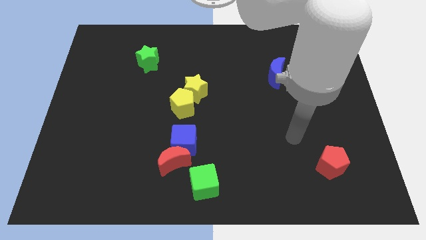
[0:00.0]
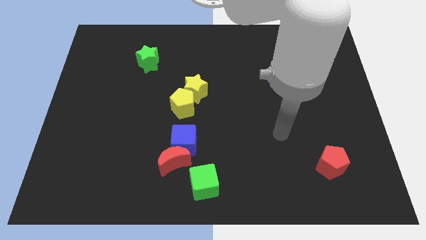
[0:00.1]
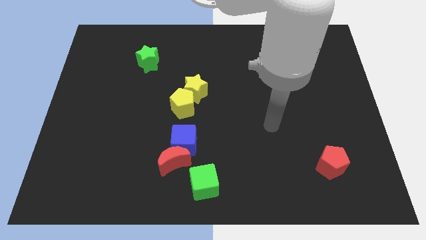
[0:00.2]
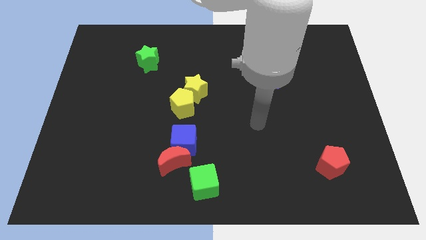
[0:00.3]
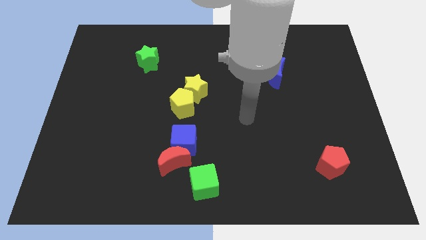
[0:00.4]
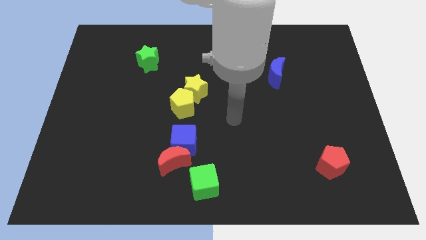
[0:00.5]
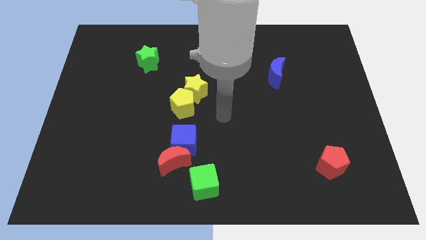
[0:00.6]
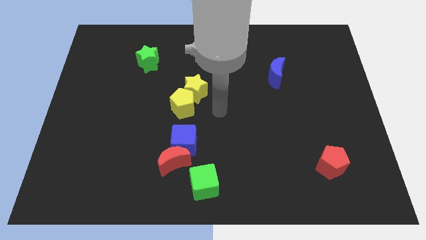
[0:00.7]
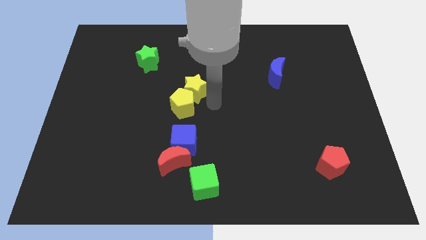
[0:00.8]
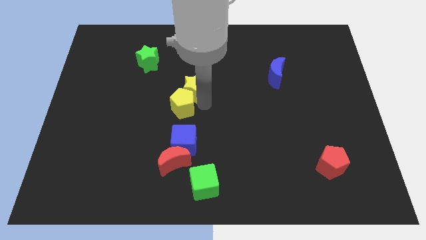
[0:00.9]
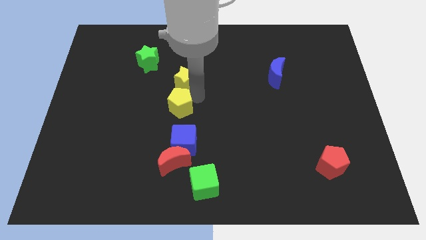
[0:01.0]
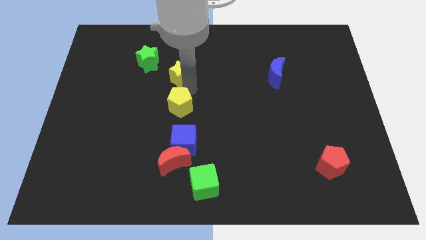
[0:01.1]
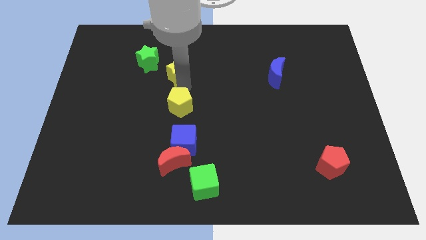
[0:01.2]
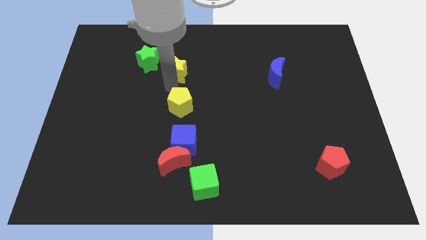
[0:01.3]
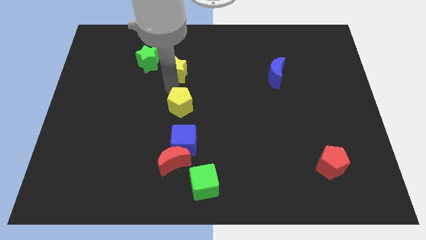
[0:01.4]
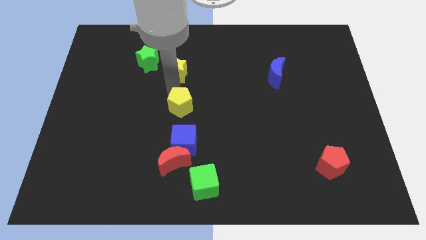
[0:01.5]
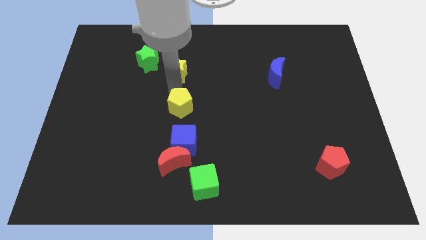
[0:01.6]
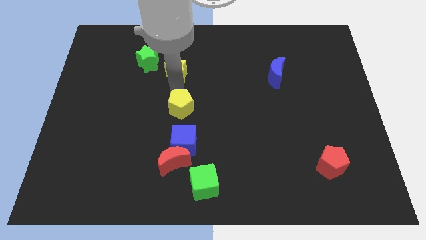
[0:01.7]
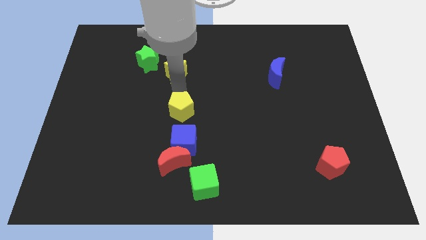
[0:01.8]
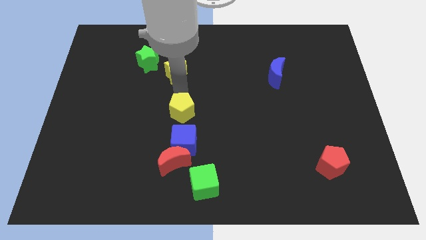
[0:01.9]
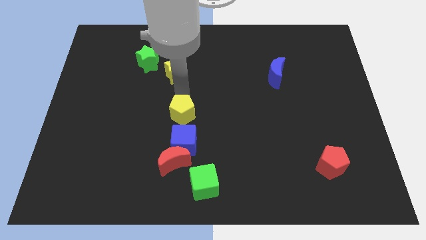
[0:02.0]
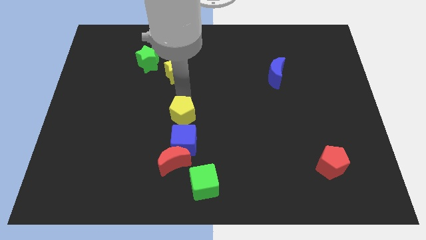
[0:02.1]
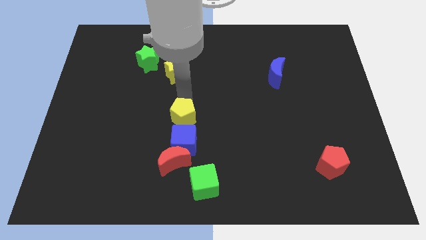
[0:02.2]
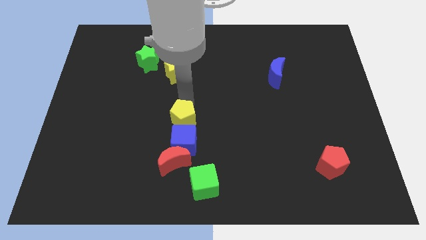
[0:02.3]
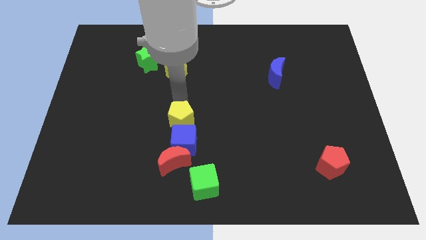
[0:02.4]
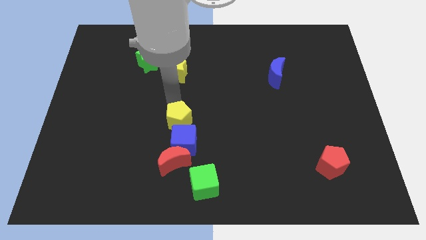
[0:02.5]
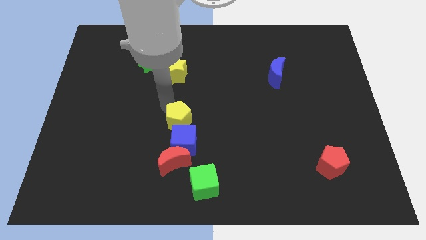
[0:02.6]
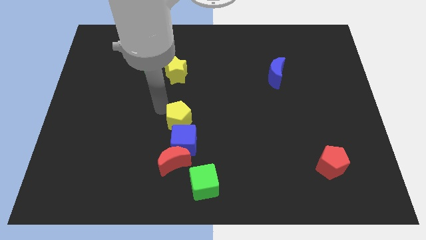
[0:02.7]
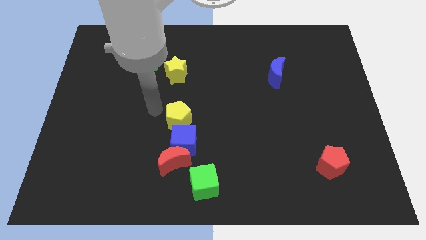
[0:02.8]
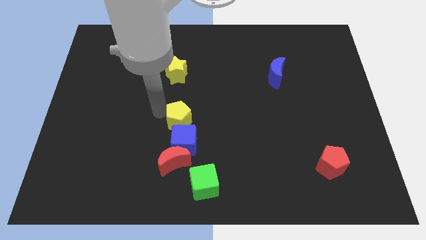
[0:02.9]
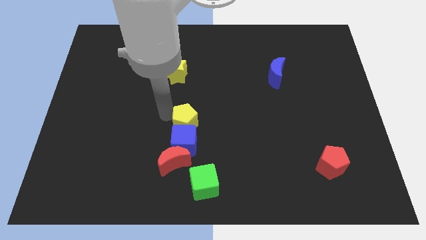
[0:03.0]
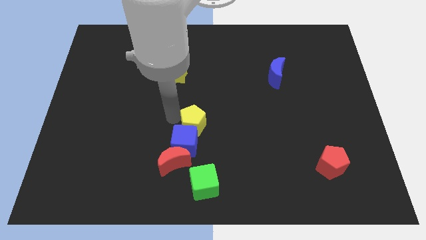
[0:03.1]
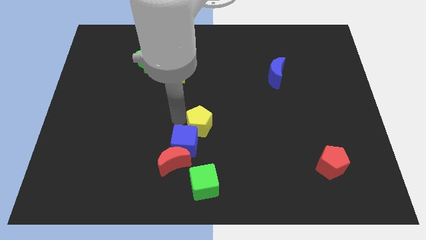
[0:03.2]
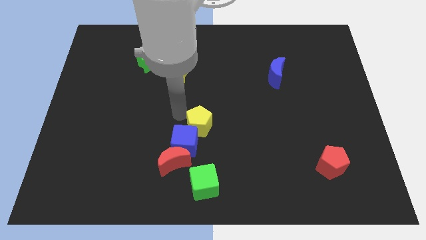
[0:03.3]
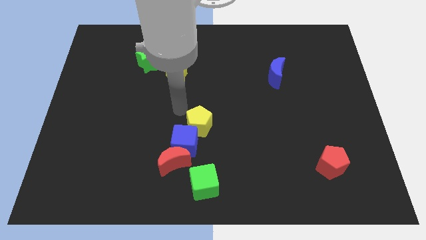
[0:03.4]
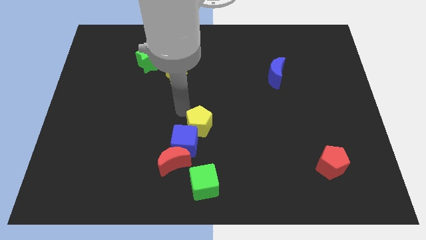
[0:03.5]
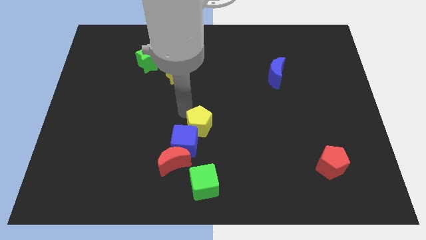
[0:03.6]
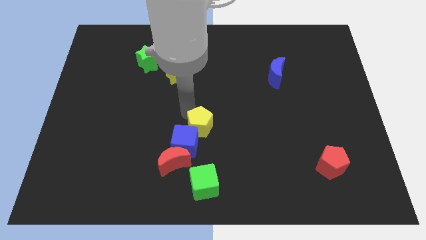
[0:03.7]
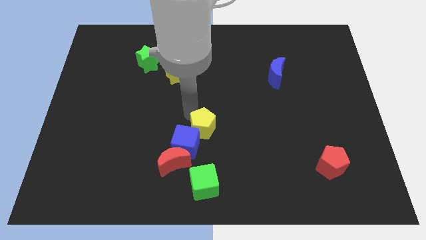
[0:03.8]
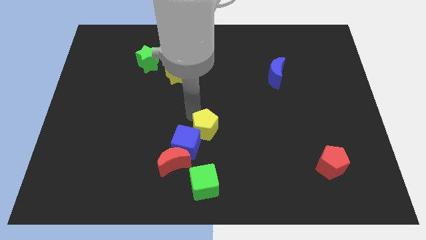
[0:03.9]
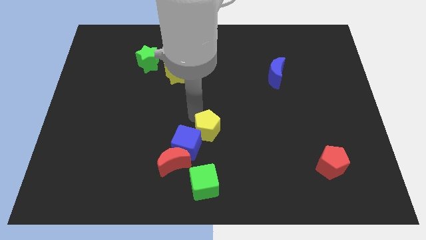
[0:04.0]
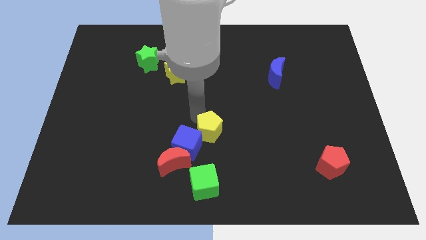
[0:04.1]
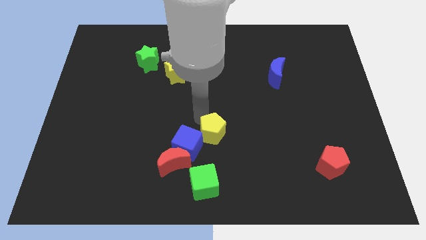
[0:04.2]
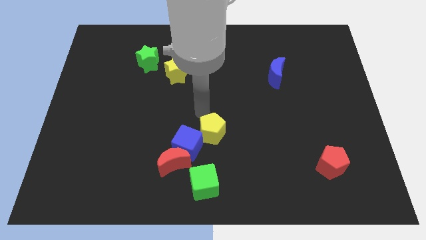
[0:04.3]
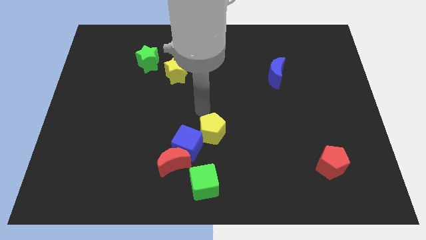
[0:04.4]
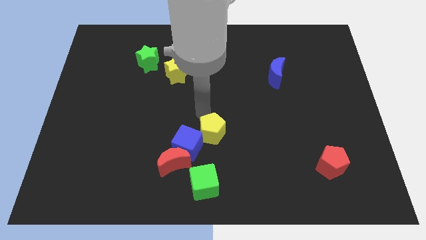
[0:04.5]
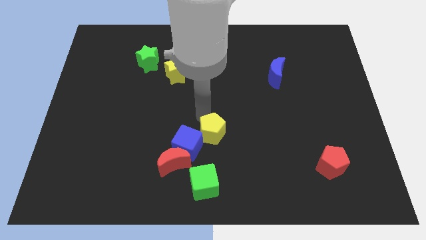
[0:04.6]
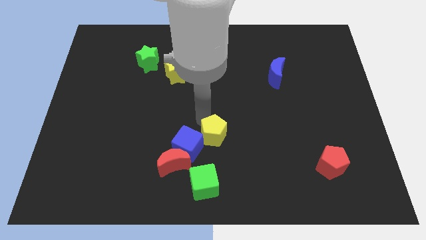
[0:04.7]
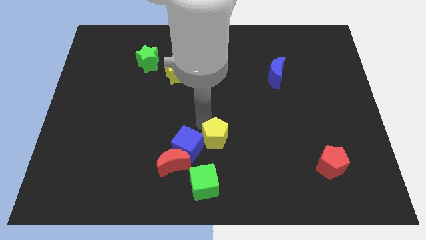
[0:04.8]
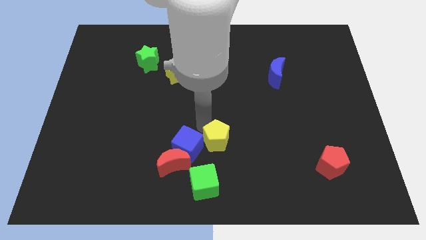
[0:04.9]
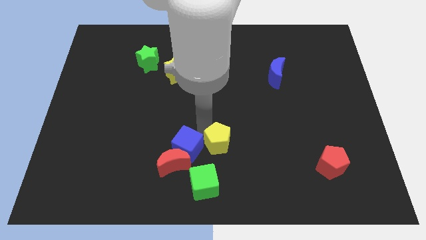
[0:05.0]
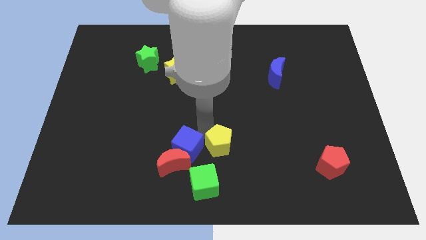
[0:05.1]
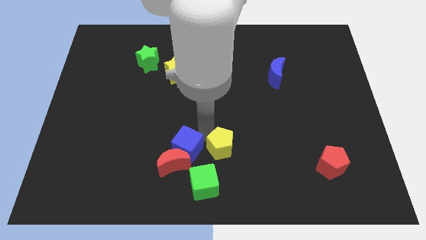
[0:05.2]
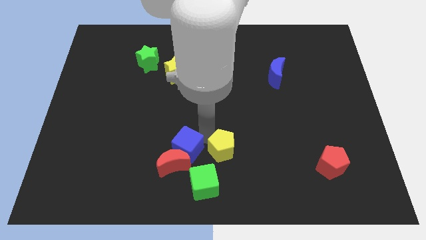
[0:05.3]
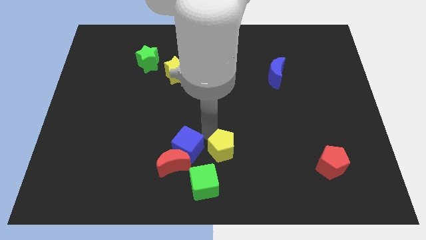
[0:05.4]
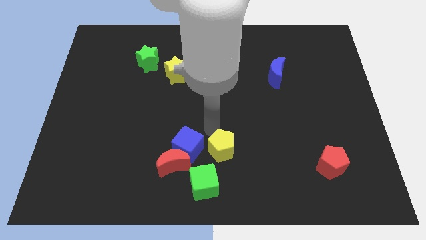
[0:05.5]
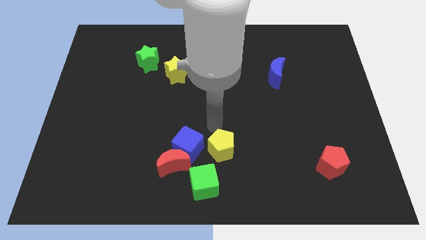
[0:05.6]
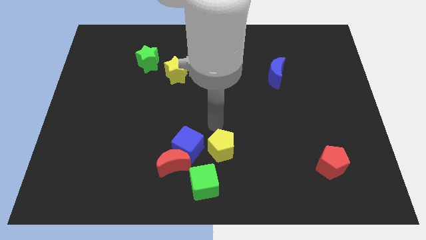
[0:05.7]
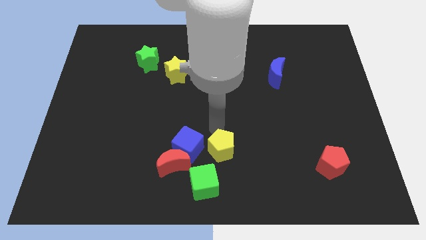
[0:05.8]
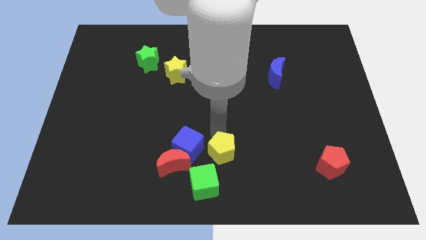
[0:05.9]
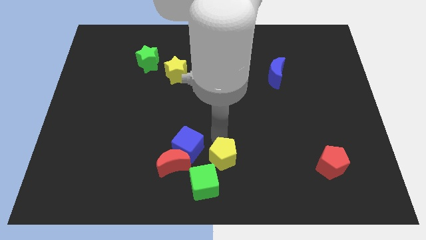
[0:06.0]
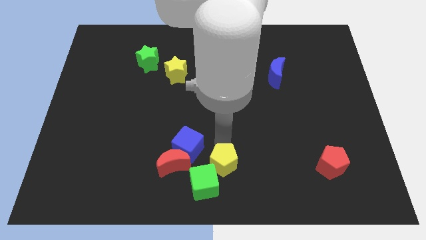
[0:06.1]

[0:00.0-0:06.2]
move the yellow pentagon to the green cube

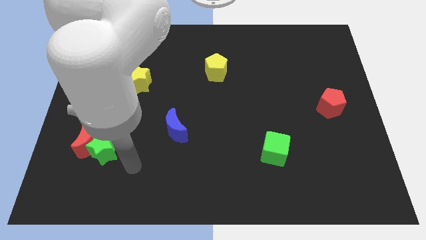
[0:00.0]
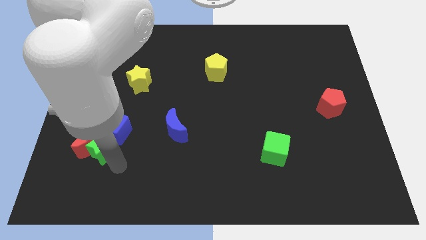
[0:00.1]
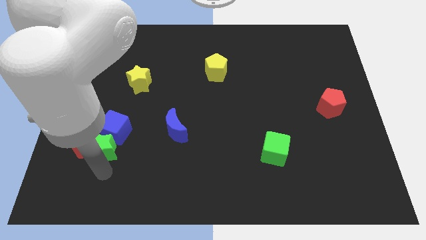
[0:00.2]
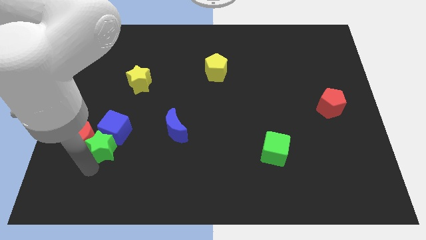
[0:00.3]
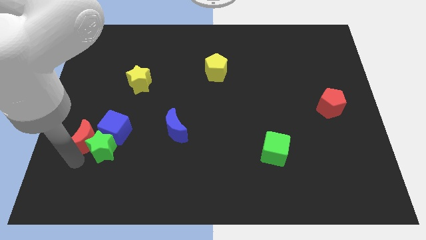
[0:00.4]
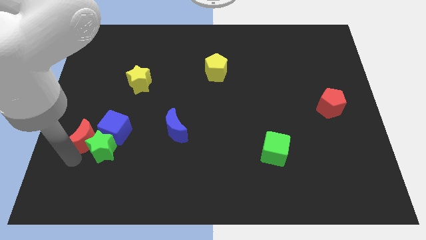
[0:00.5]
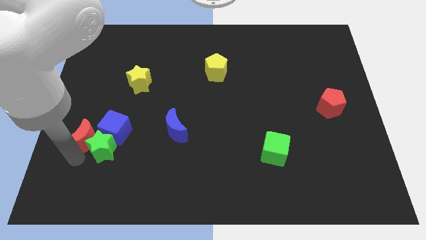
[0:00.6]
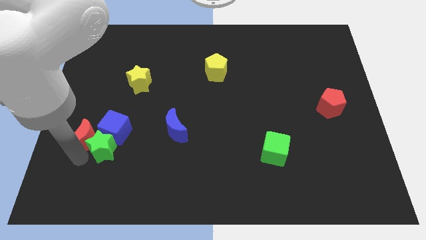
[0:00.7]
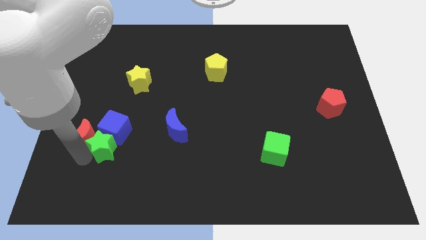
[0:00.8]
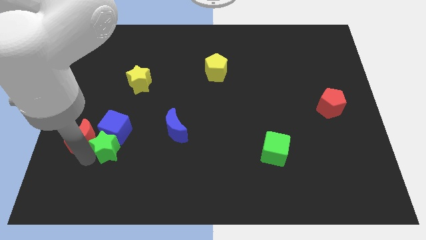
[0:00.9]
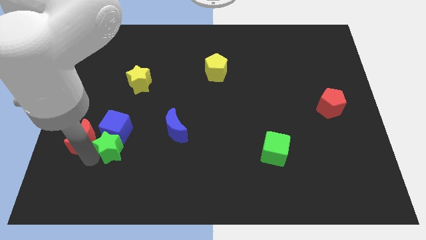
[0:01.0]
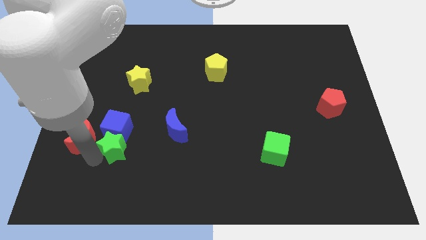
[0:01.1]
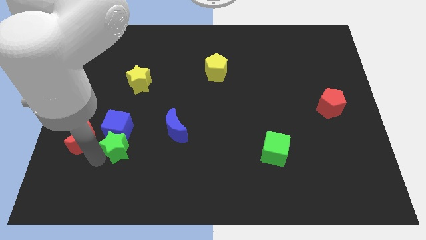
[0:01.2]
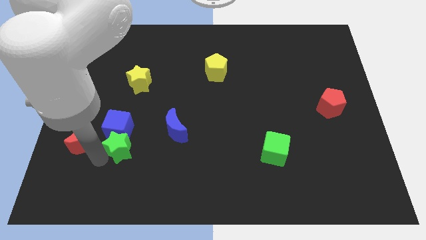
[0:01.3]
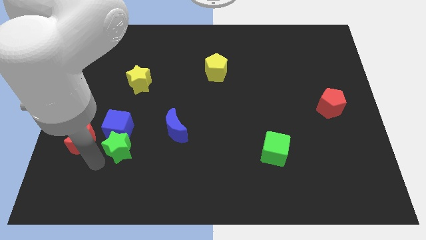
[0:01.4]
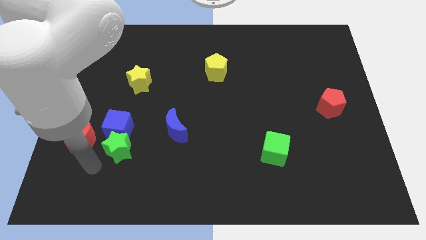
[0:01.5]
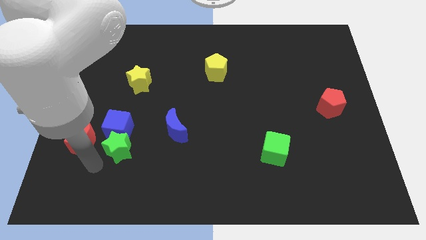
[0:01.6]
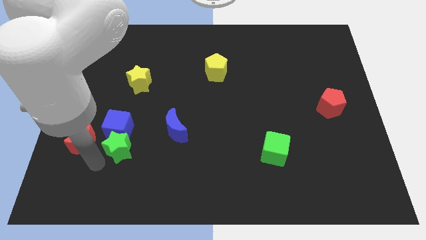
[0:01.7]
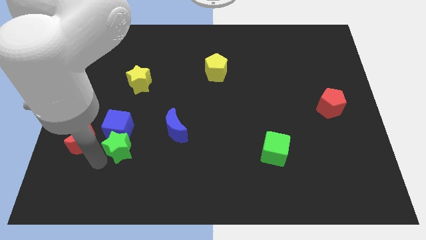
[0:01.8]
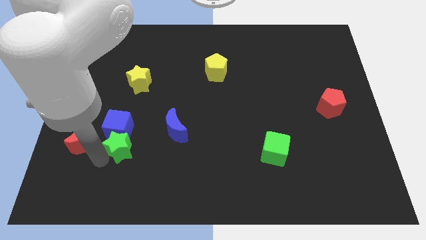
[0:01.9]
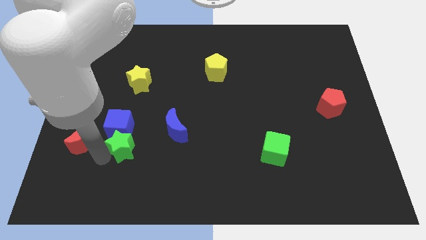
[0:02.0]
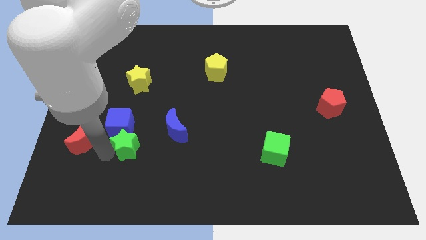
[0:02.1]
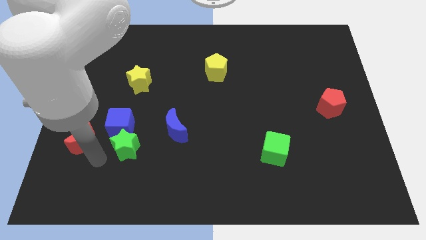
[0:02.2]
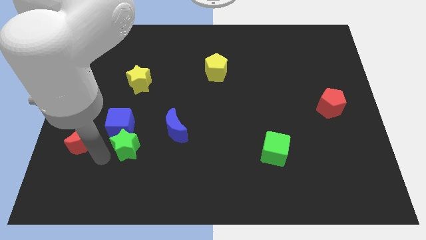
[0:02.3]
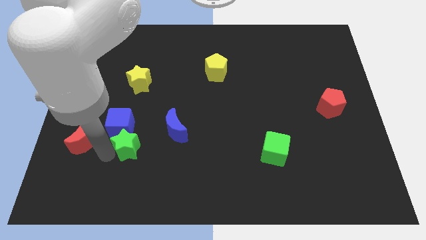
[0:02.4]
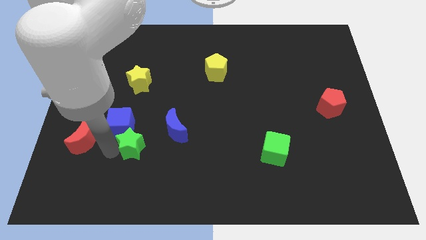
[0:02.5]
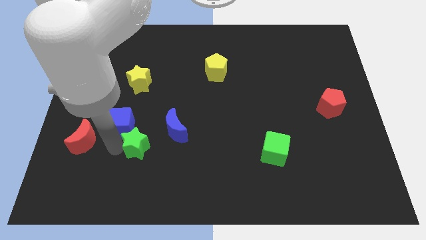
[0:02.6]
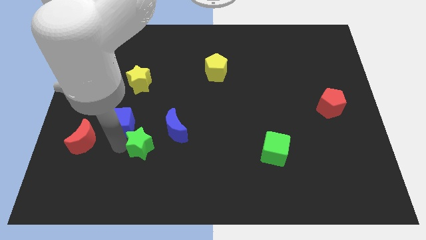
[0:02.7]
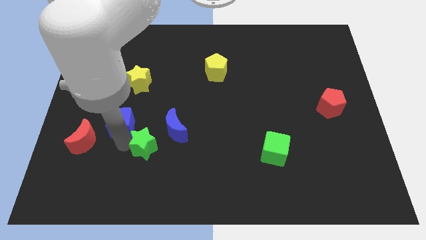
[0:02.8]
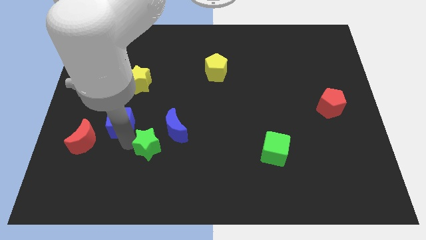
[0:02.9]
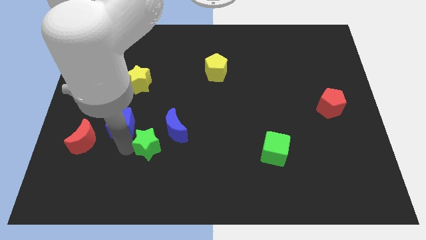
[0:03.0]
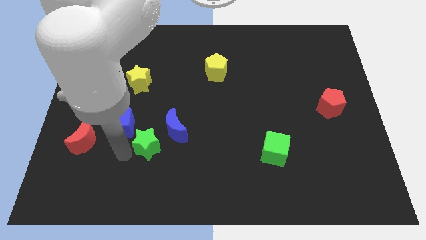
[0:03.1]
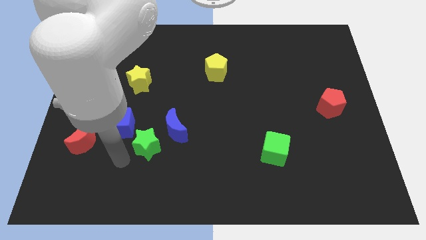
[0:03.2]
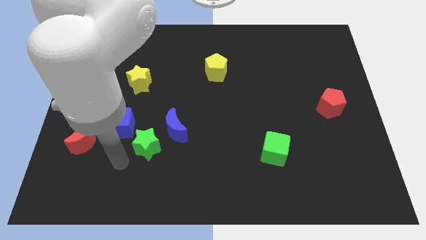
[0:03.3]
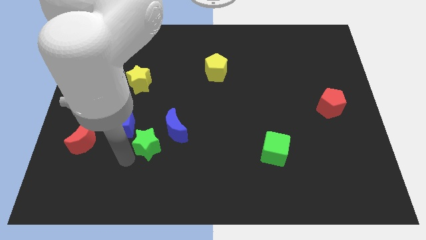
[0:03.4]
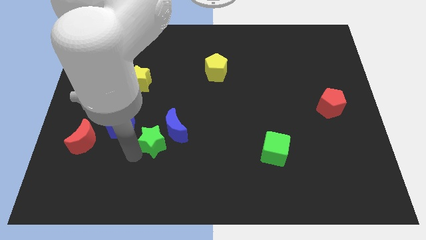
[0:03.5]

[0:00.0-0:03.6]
push the green star next to the blue moon
